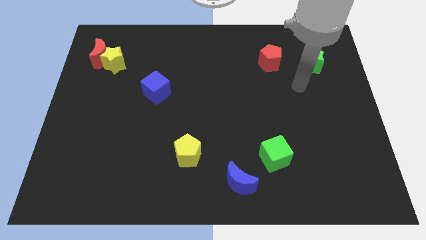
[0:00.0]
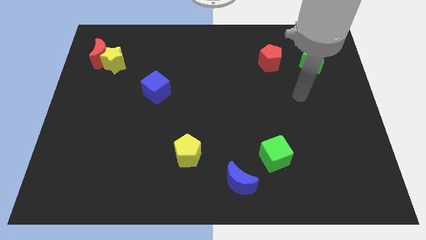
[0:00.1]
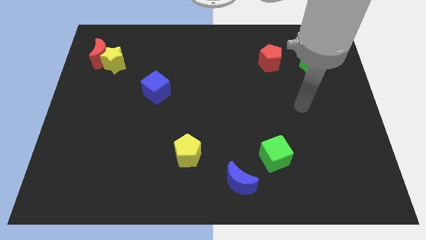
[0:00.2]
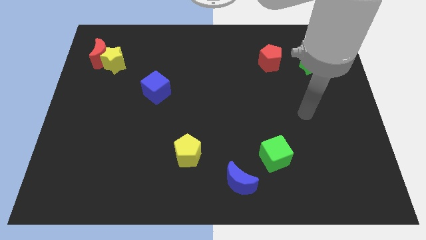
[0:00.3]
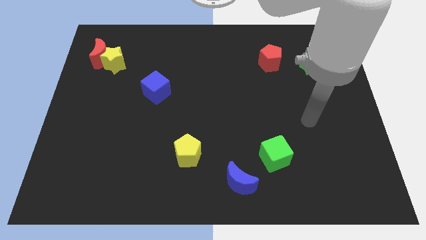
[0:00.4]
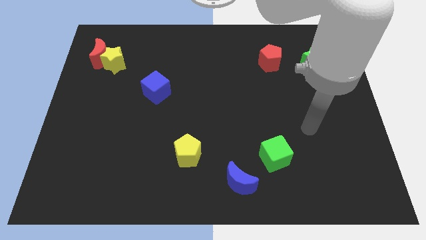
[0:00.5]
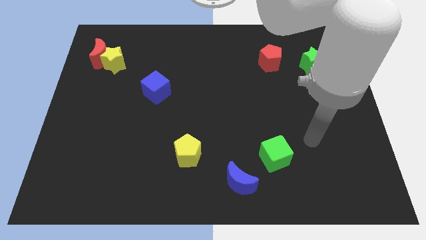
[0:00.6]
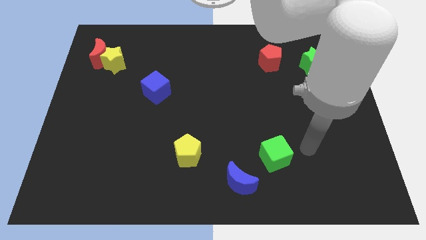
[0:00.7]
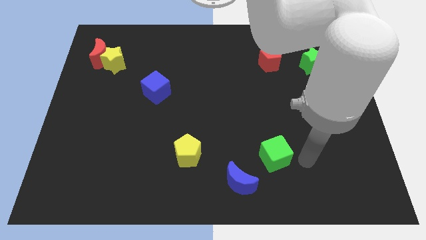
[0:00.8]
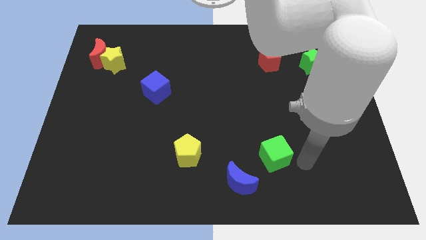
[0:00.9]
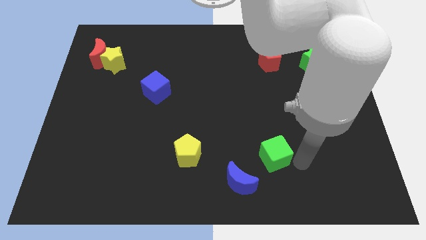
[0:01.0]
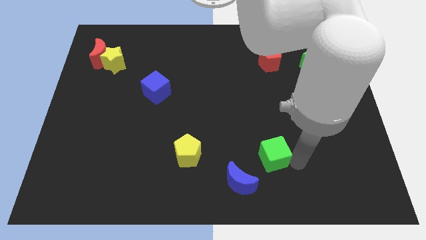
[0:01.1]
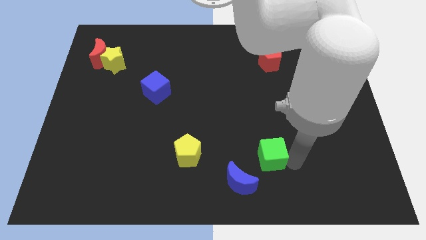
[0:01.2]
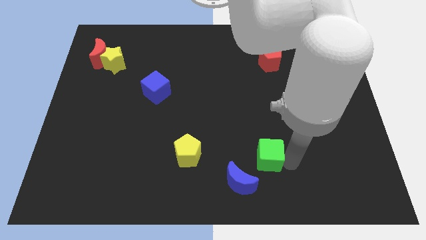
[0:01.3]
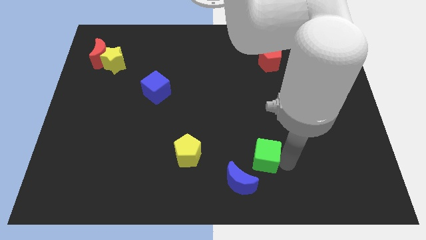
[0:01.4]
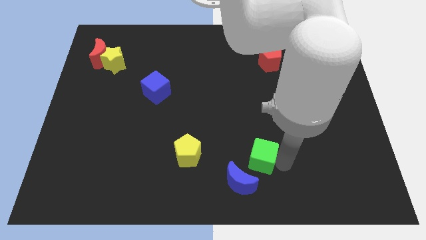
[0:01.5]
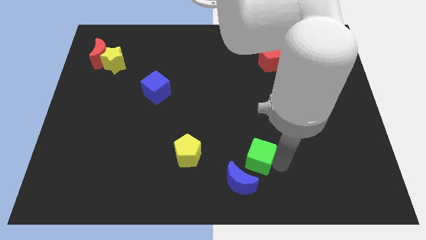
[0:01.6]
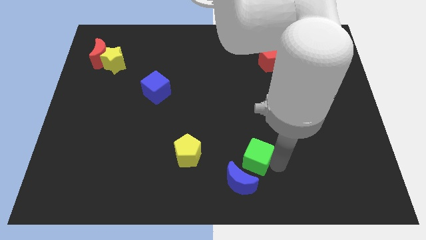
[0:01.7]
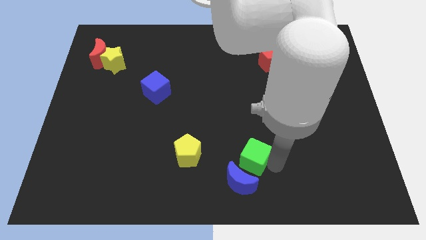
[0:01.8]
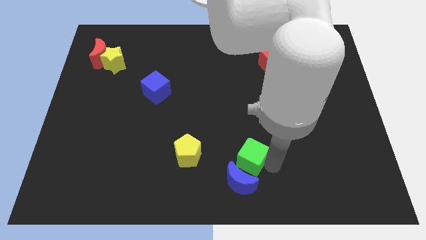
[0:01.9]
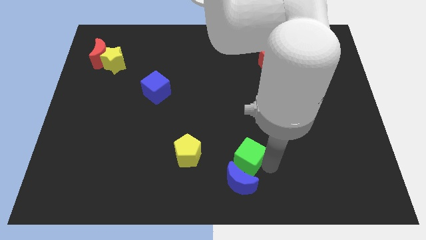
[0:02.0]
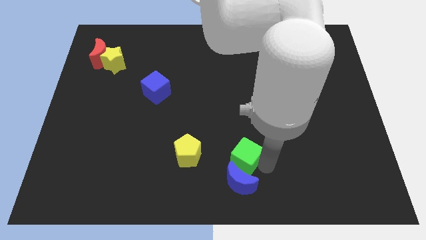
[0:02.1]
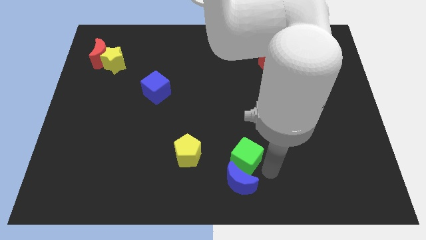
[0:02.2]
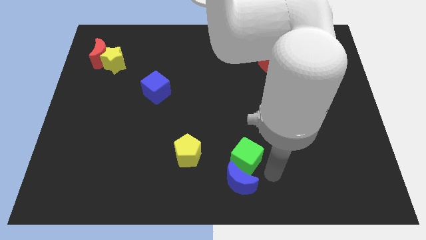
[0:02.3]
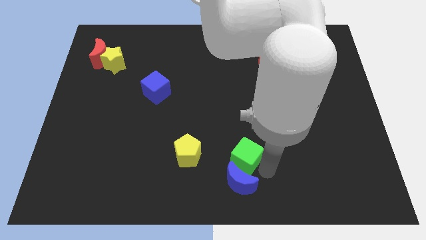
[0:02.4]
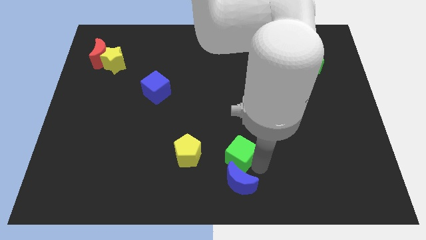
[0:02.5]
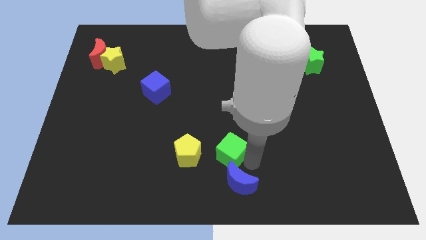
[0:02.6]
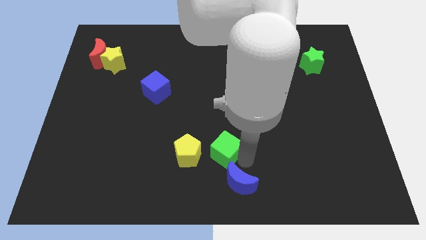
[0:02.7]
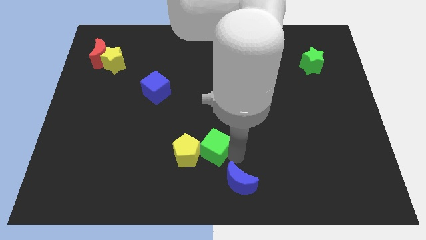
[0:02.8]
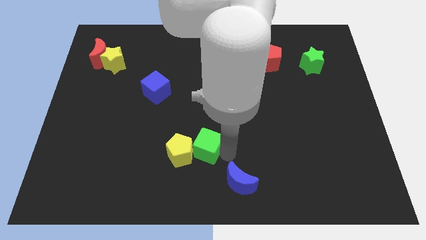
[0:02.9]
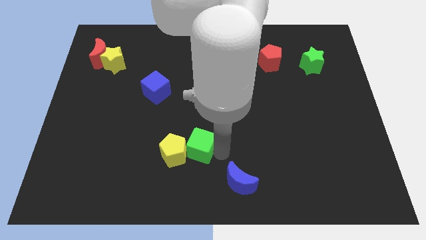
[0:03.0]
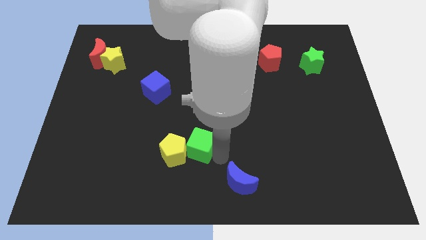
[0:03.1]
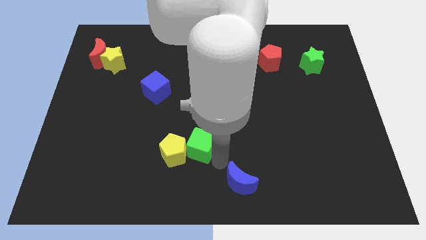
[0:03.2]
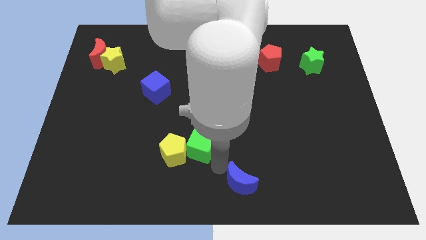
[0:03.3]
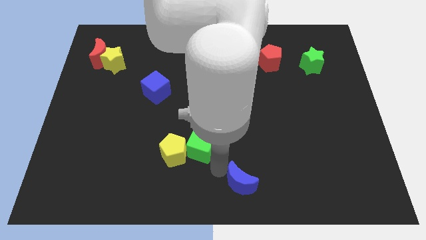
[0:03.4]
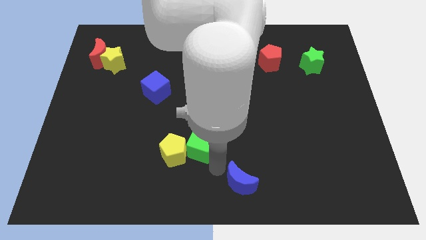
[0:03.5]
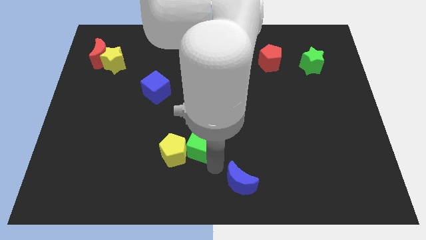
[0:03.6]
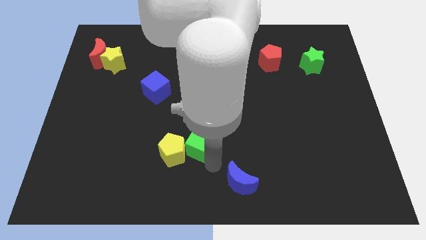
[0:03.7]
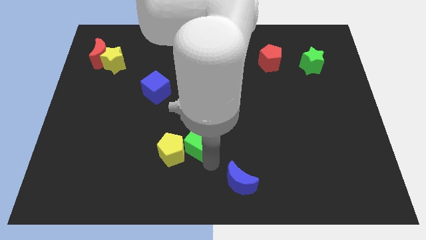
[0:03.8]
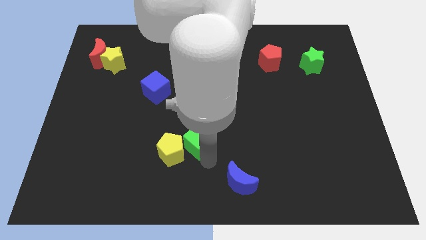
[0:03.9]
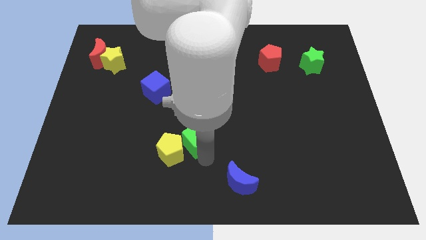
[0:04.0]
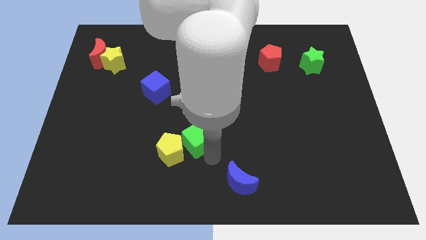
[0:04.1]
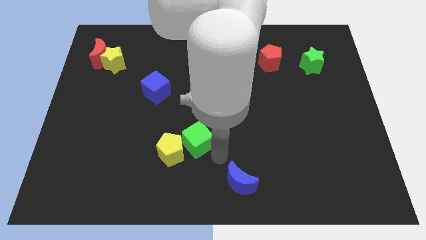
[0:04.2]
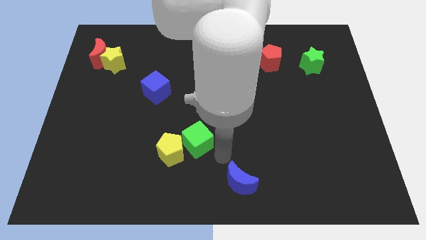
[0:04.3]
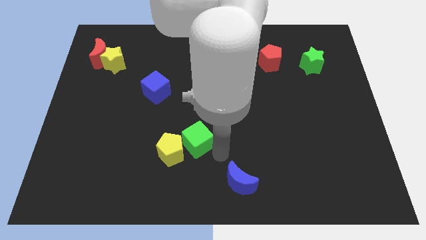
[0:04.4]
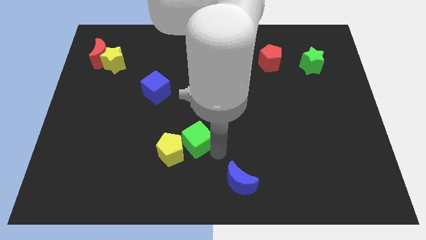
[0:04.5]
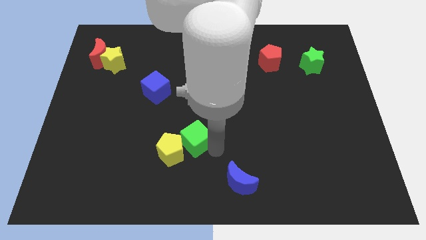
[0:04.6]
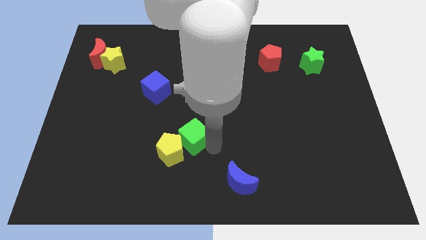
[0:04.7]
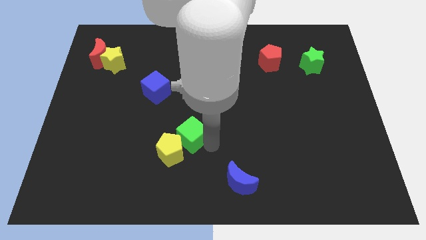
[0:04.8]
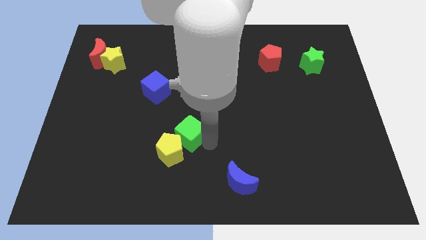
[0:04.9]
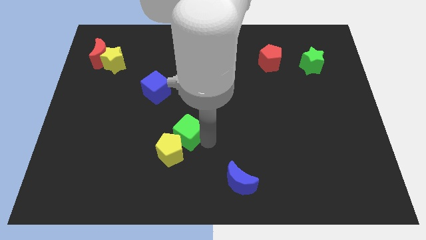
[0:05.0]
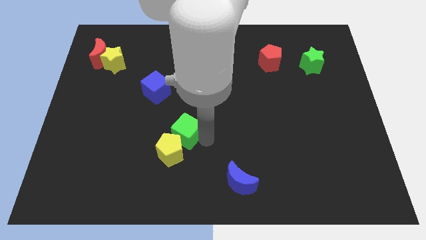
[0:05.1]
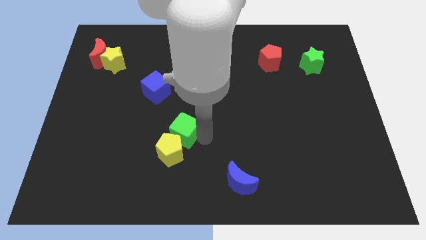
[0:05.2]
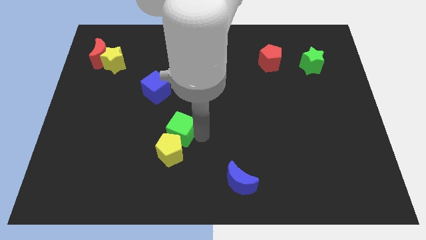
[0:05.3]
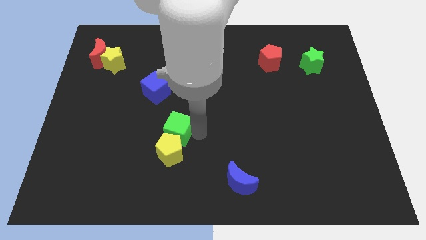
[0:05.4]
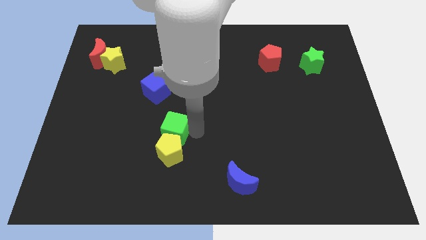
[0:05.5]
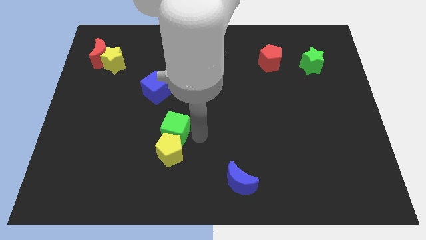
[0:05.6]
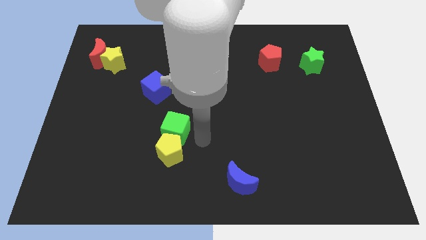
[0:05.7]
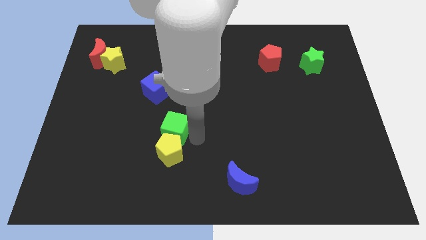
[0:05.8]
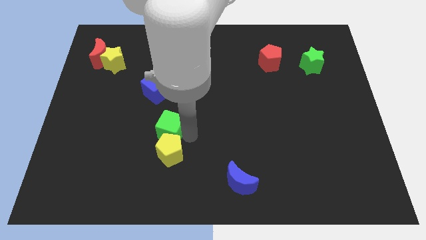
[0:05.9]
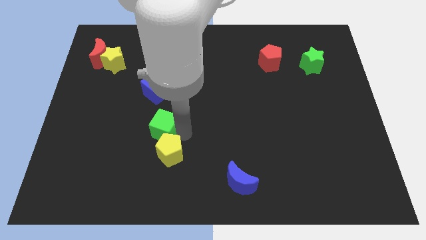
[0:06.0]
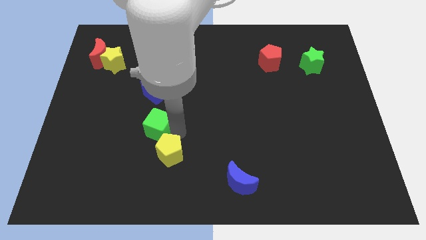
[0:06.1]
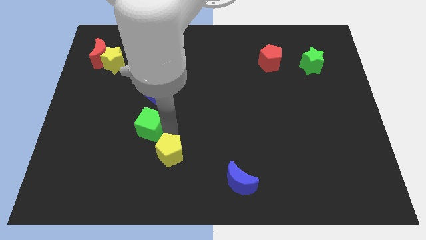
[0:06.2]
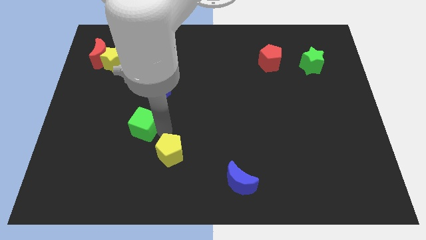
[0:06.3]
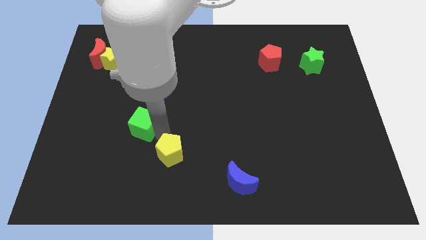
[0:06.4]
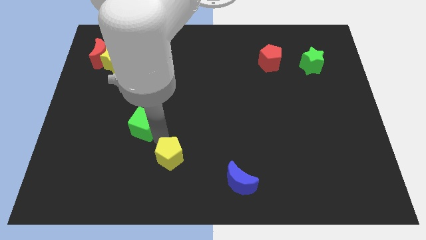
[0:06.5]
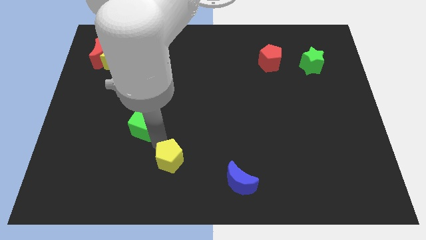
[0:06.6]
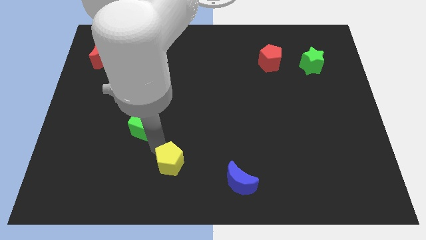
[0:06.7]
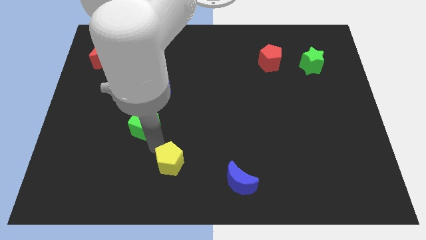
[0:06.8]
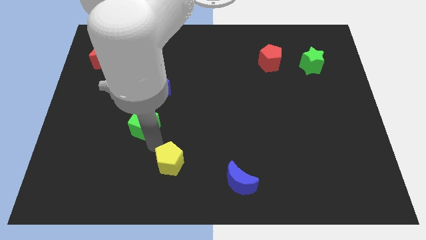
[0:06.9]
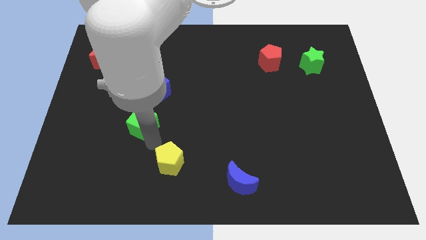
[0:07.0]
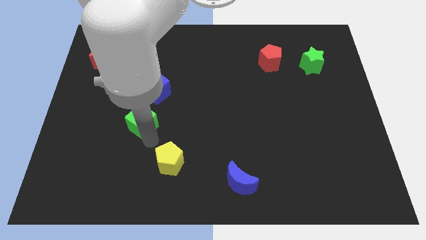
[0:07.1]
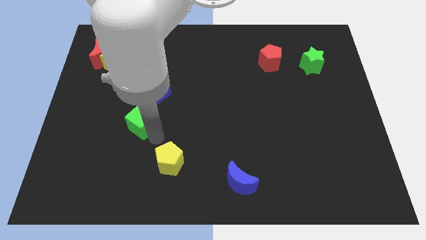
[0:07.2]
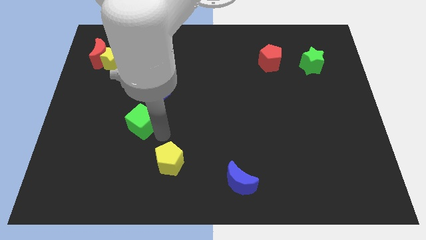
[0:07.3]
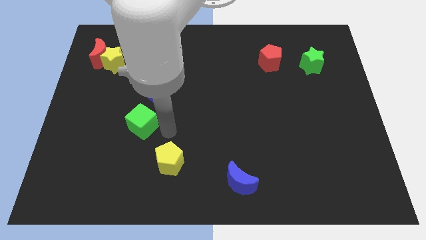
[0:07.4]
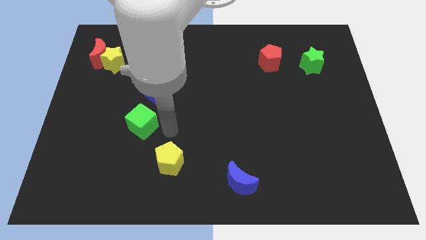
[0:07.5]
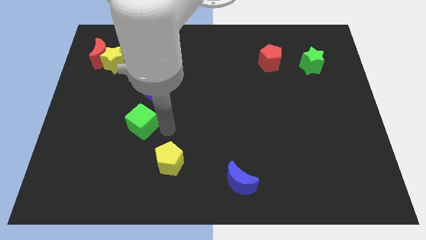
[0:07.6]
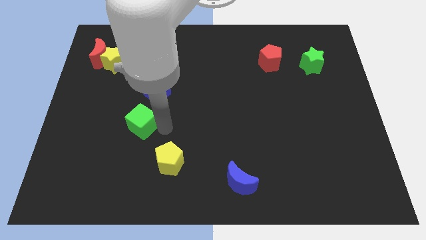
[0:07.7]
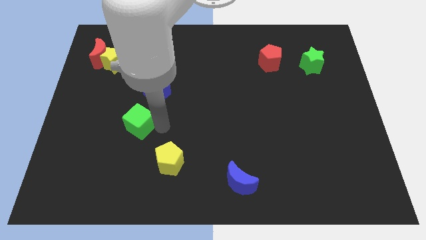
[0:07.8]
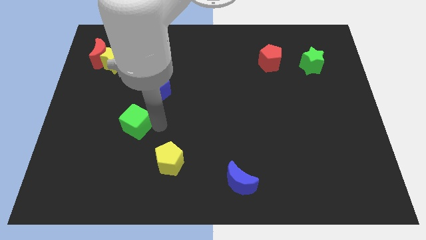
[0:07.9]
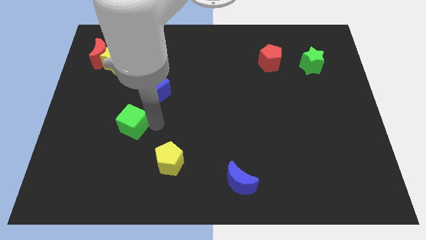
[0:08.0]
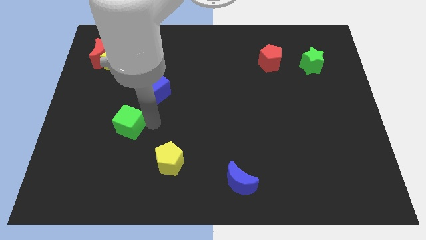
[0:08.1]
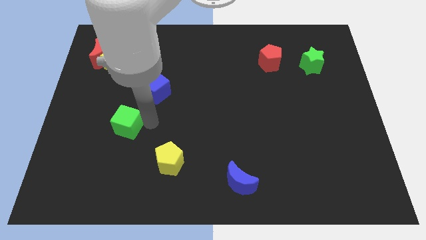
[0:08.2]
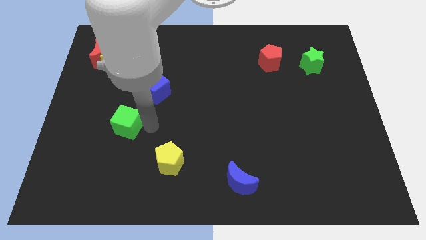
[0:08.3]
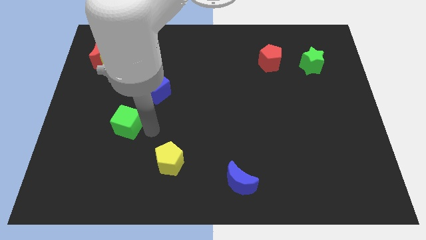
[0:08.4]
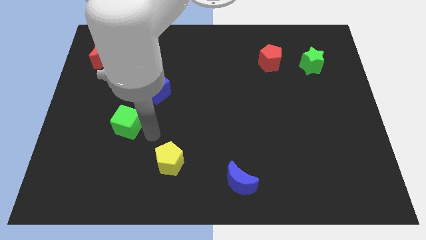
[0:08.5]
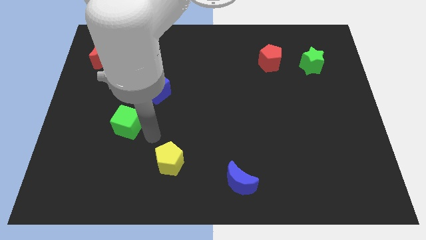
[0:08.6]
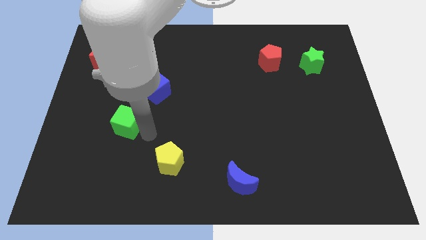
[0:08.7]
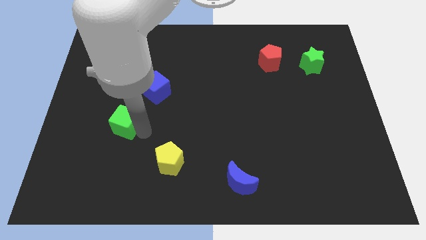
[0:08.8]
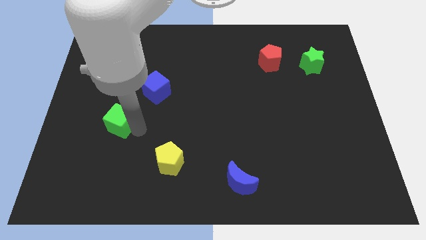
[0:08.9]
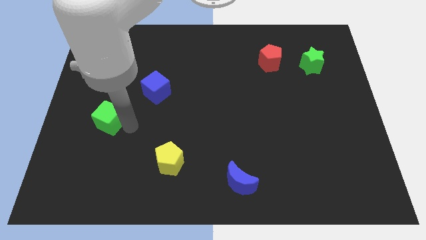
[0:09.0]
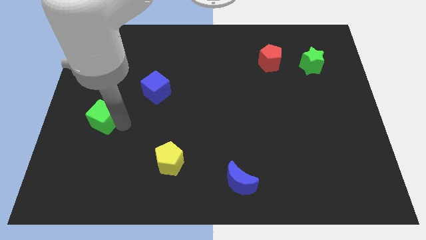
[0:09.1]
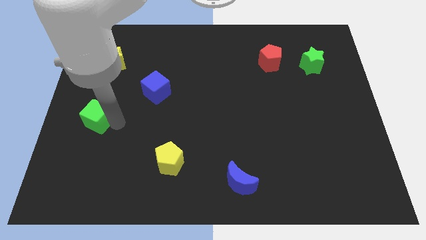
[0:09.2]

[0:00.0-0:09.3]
move the green cube to the center left
